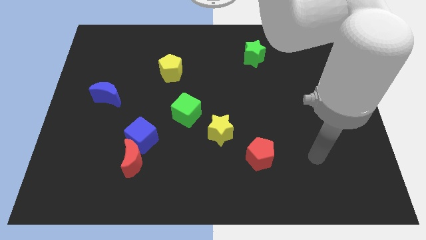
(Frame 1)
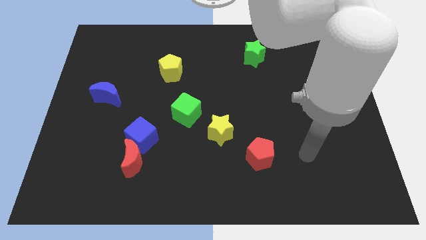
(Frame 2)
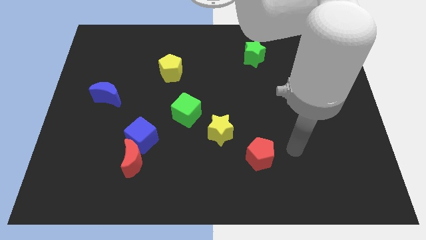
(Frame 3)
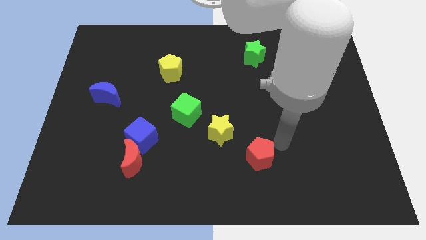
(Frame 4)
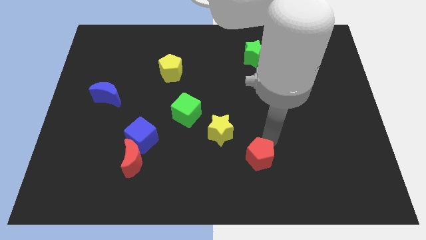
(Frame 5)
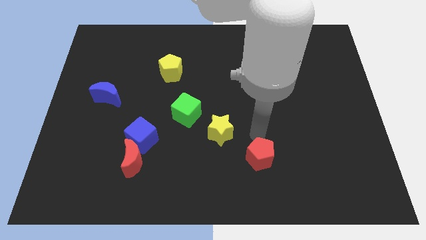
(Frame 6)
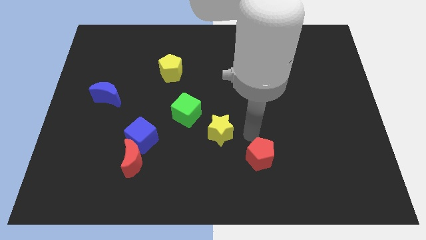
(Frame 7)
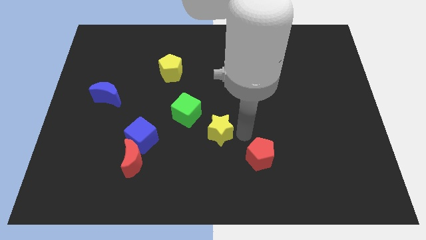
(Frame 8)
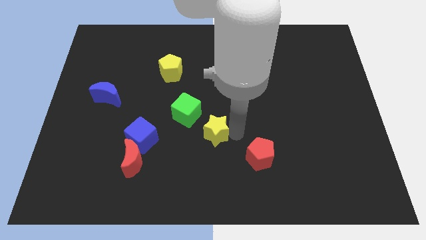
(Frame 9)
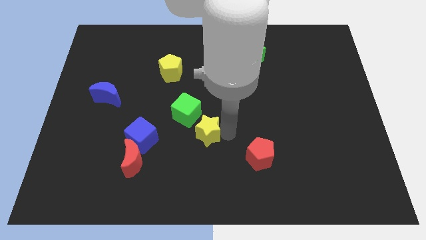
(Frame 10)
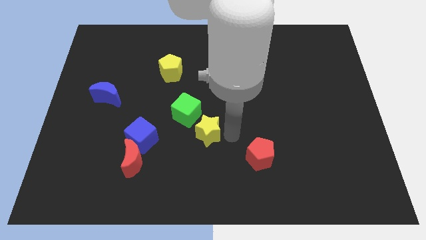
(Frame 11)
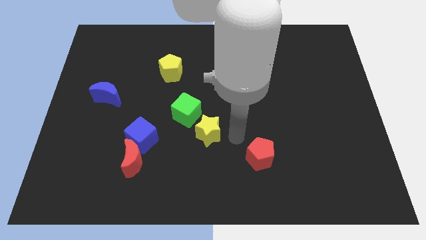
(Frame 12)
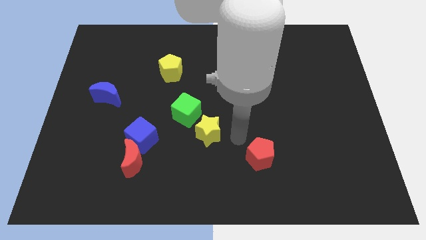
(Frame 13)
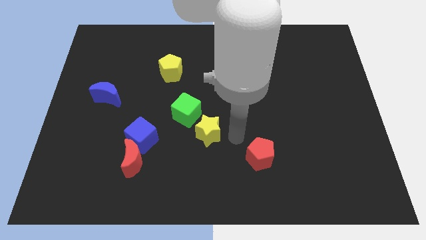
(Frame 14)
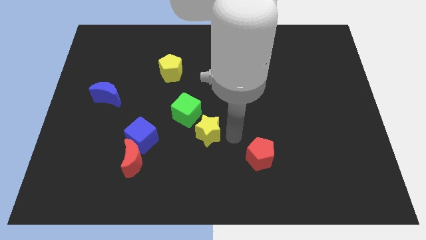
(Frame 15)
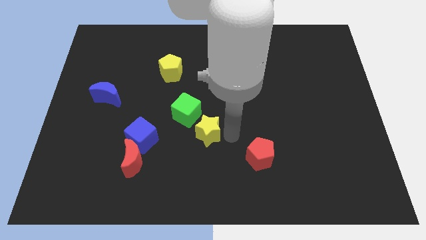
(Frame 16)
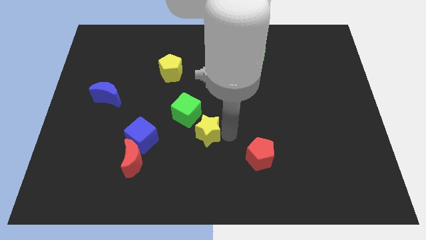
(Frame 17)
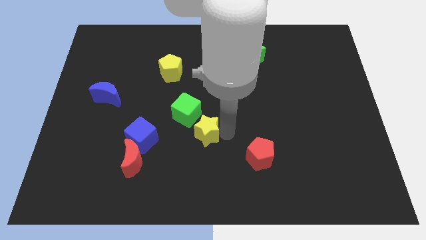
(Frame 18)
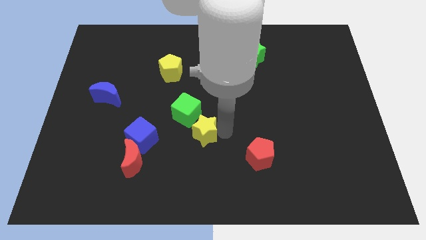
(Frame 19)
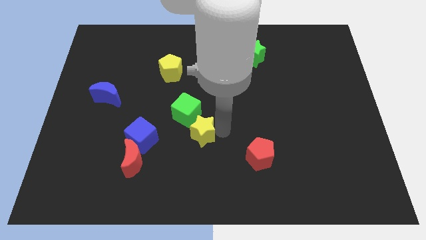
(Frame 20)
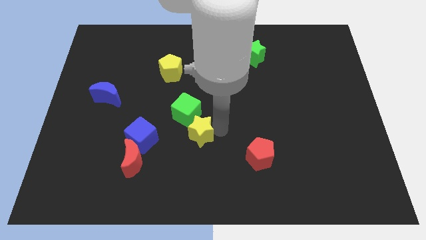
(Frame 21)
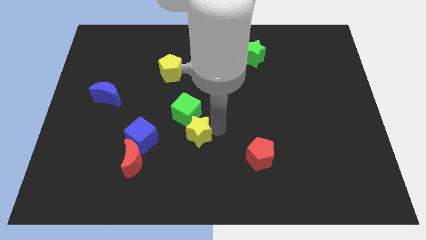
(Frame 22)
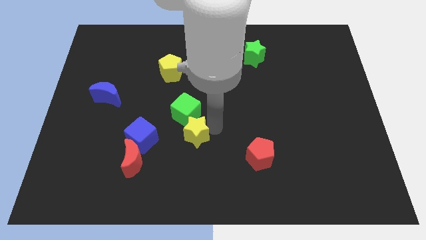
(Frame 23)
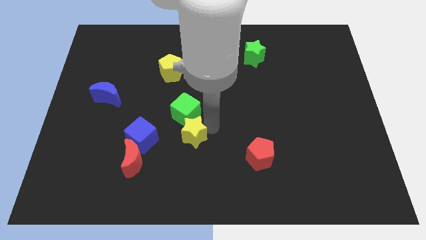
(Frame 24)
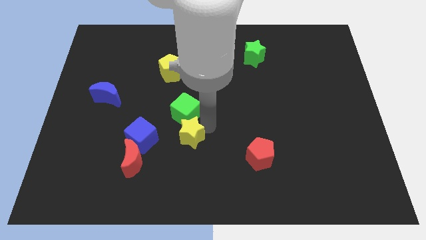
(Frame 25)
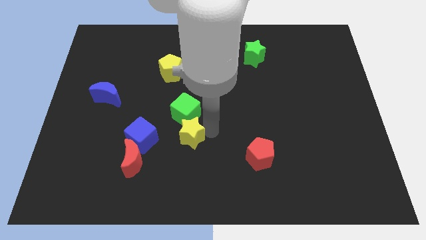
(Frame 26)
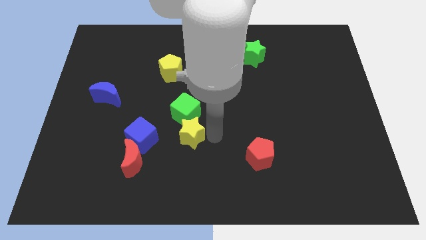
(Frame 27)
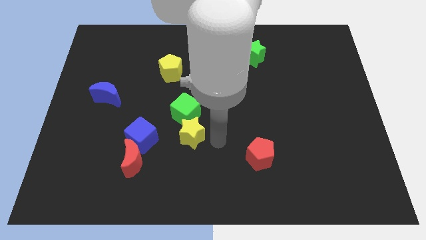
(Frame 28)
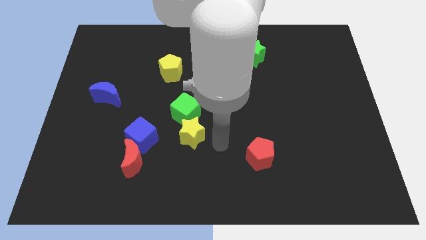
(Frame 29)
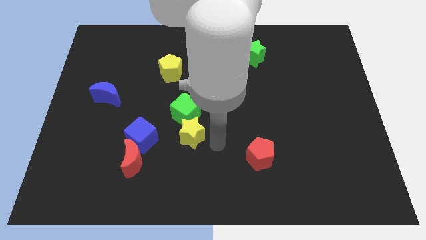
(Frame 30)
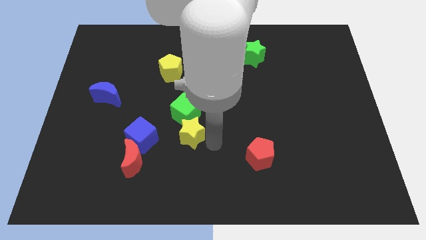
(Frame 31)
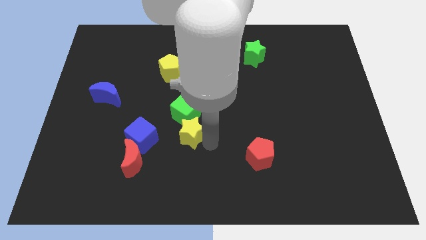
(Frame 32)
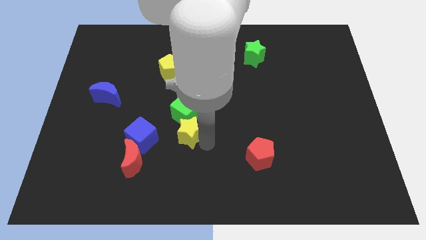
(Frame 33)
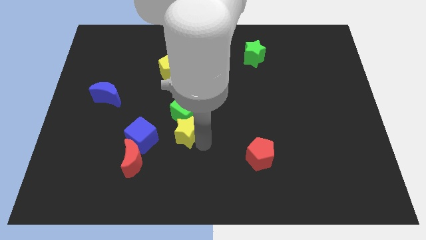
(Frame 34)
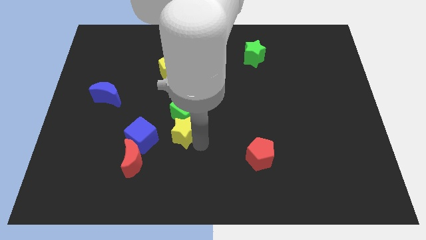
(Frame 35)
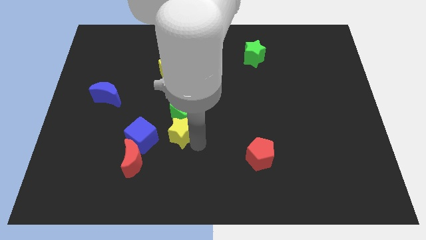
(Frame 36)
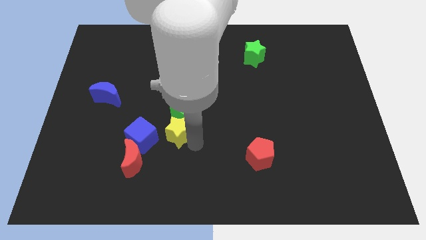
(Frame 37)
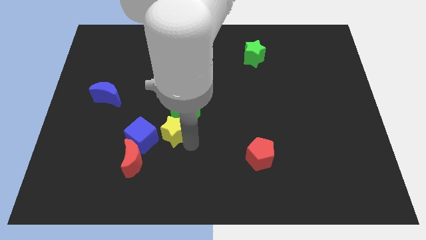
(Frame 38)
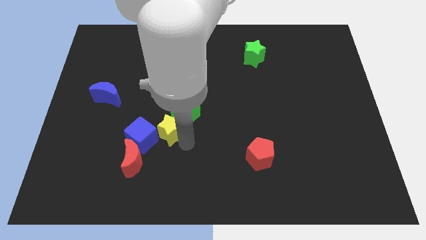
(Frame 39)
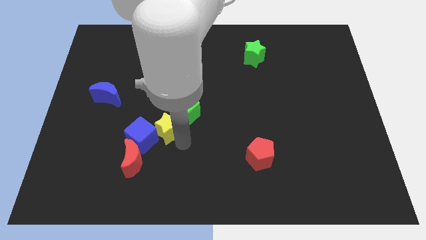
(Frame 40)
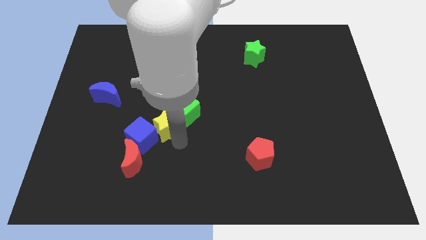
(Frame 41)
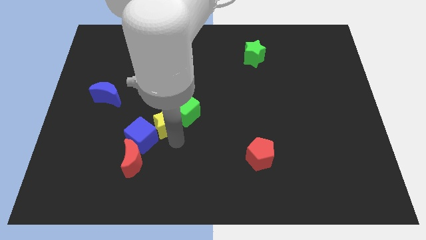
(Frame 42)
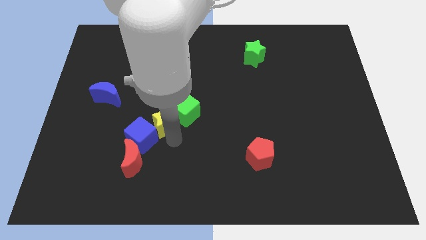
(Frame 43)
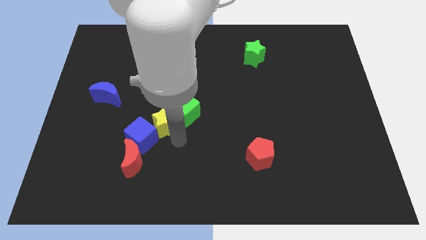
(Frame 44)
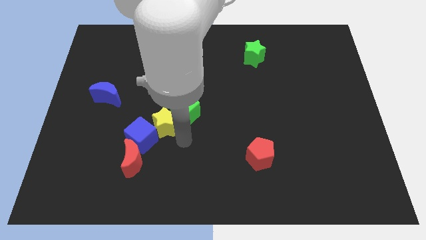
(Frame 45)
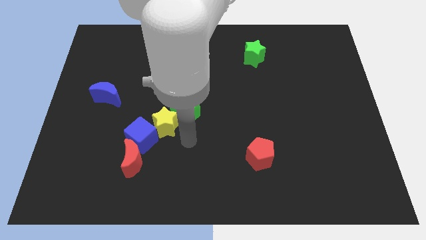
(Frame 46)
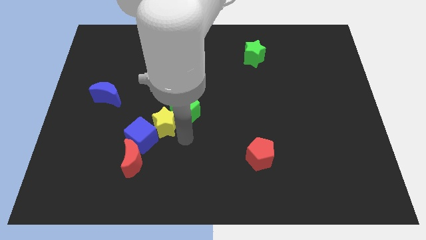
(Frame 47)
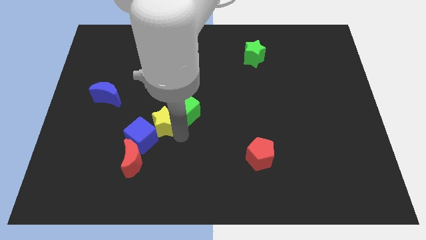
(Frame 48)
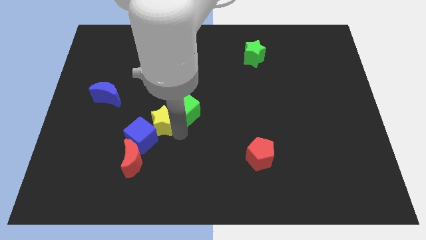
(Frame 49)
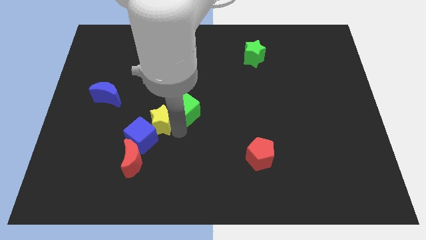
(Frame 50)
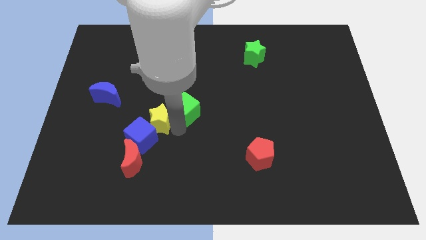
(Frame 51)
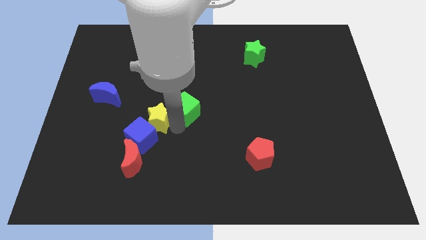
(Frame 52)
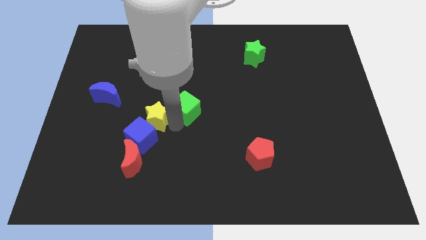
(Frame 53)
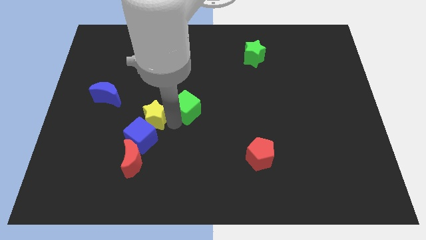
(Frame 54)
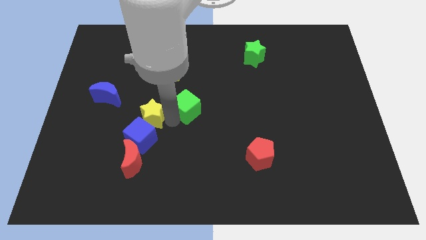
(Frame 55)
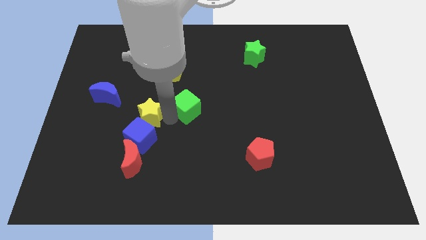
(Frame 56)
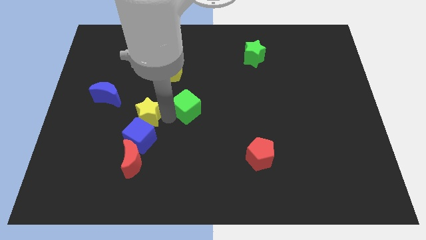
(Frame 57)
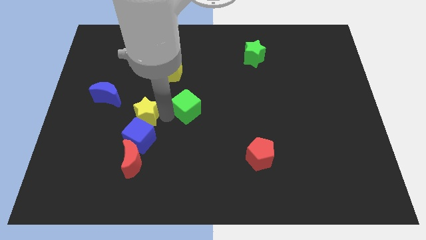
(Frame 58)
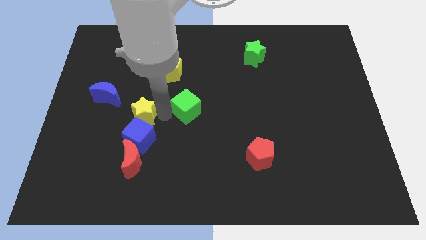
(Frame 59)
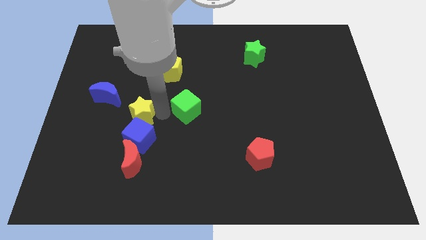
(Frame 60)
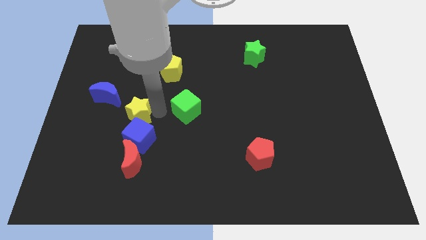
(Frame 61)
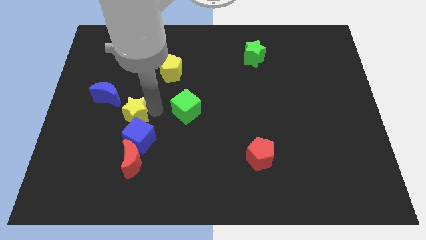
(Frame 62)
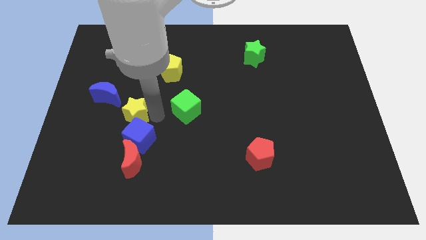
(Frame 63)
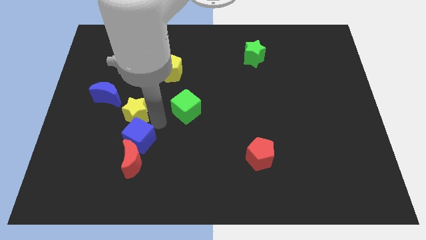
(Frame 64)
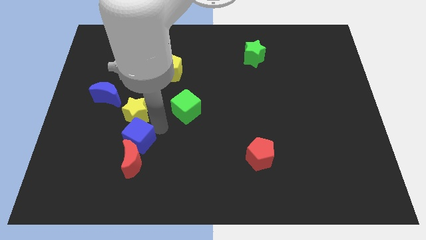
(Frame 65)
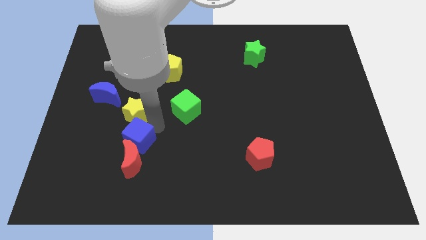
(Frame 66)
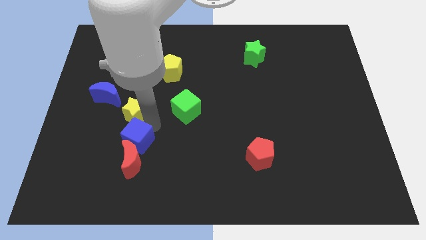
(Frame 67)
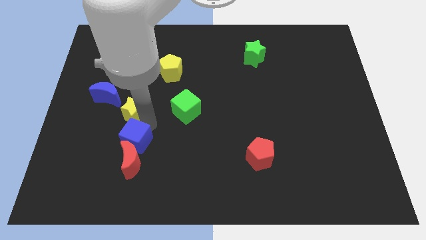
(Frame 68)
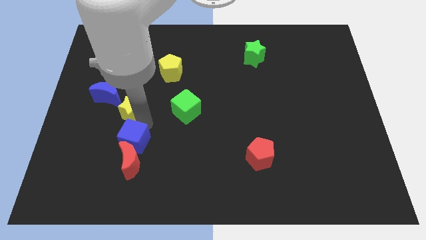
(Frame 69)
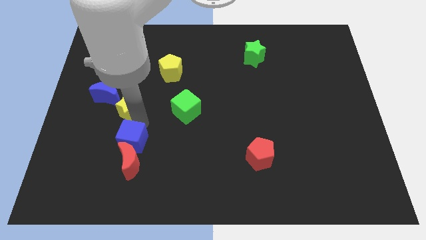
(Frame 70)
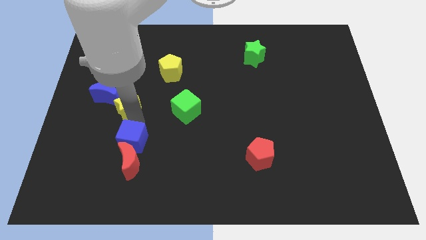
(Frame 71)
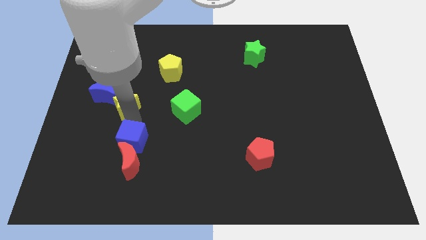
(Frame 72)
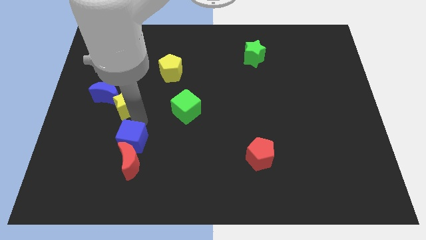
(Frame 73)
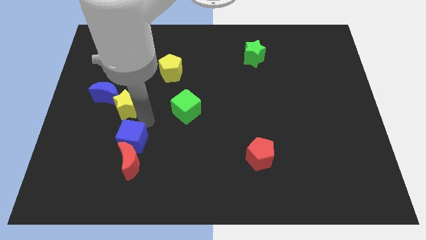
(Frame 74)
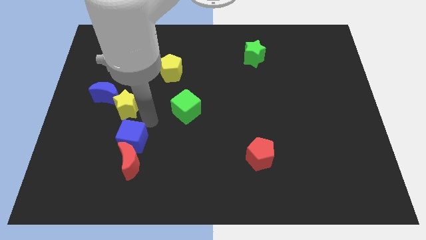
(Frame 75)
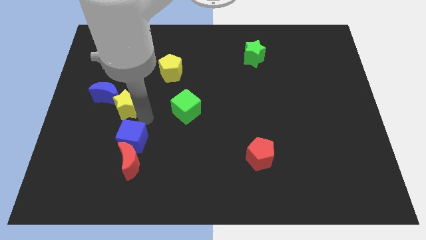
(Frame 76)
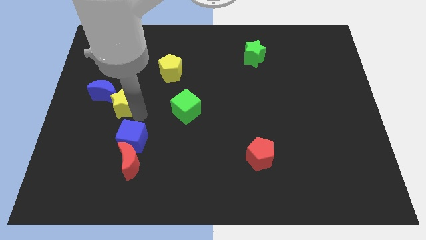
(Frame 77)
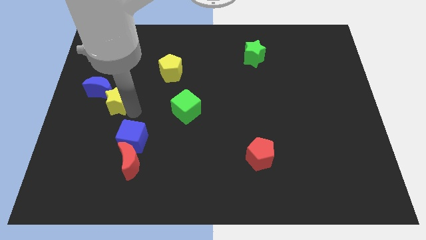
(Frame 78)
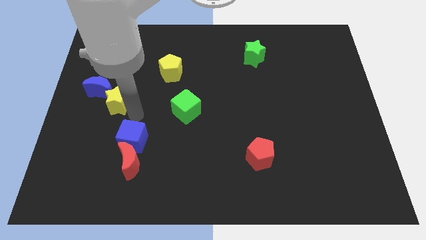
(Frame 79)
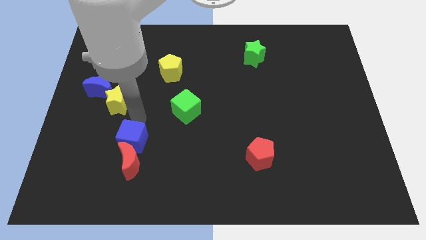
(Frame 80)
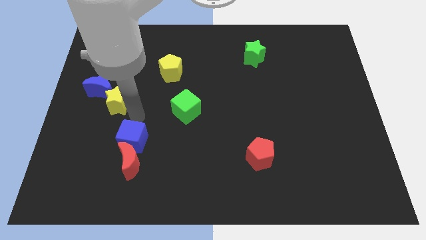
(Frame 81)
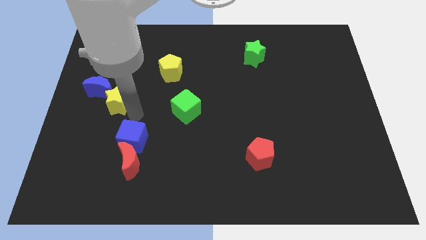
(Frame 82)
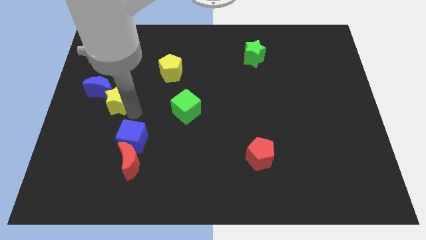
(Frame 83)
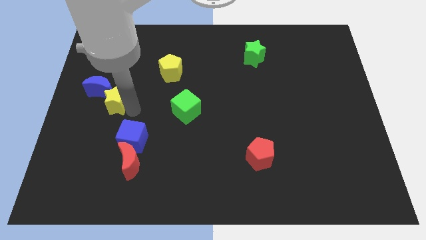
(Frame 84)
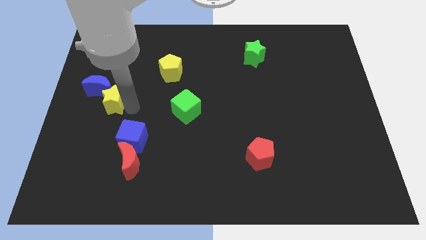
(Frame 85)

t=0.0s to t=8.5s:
put the yellow star towards the blue moon
